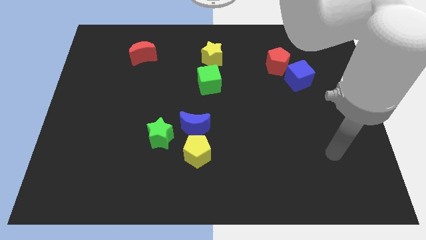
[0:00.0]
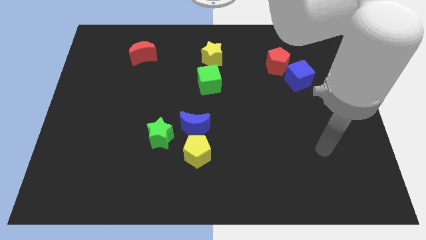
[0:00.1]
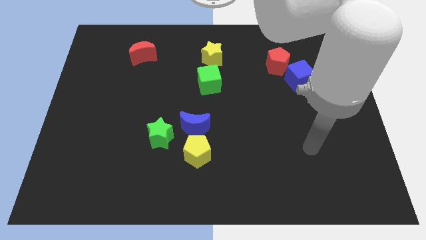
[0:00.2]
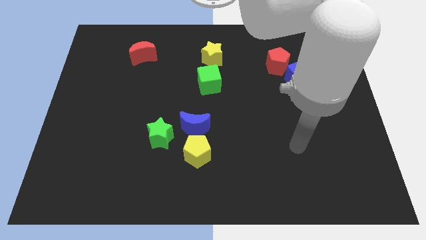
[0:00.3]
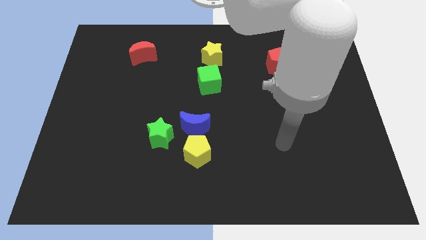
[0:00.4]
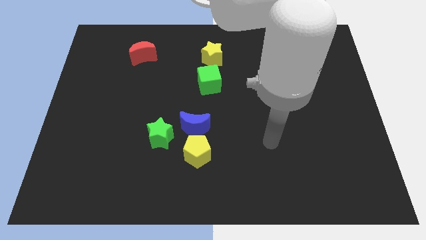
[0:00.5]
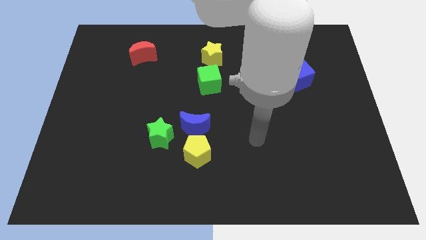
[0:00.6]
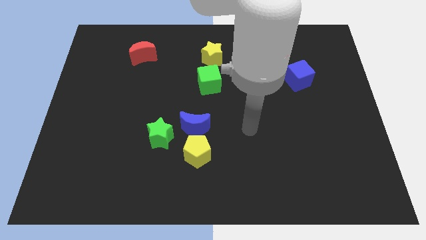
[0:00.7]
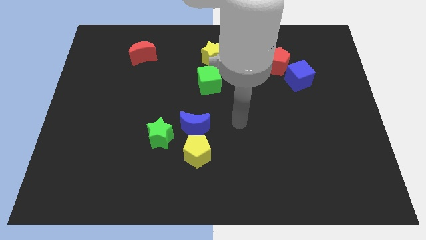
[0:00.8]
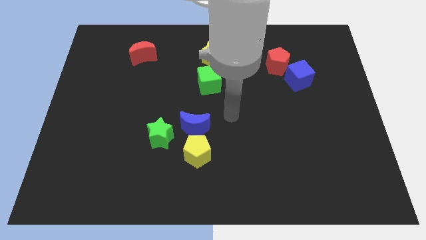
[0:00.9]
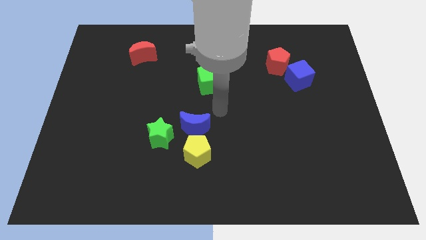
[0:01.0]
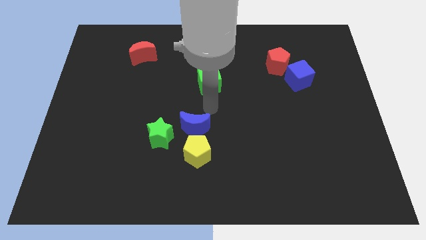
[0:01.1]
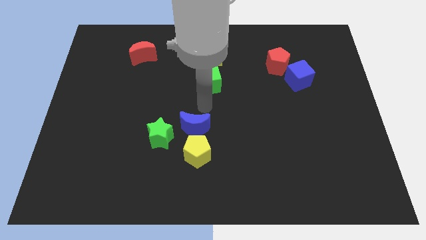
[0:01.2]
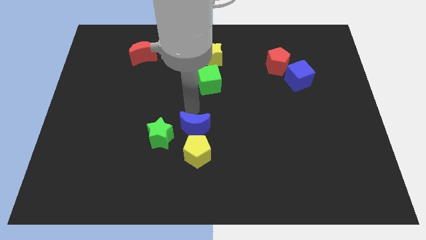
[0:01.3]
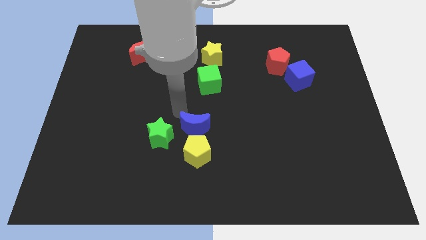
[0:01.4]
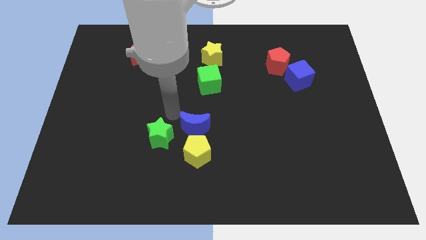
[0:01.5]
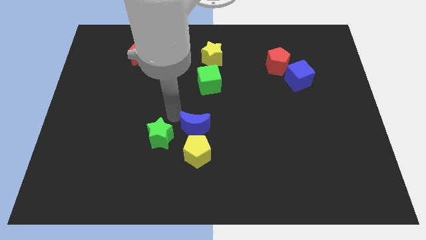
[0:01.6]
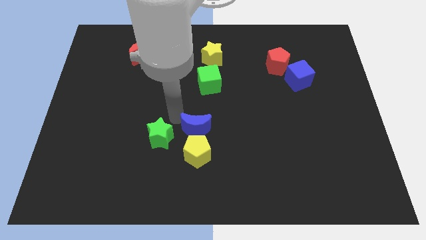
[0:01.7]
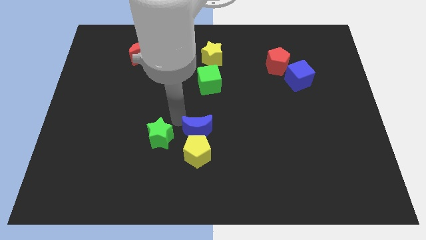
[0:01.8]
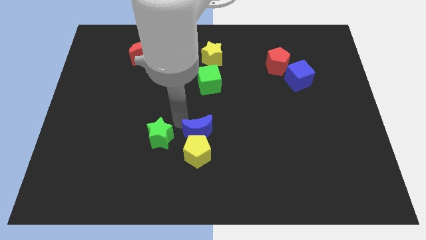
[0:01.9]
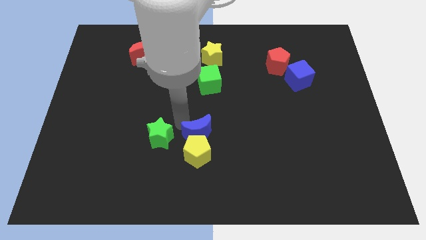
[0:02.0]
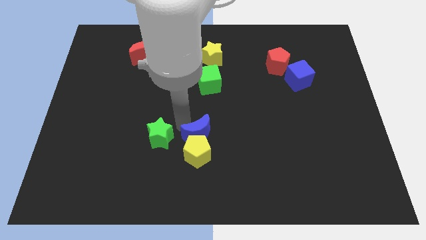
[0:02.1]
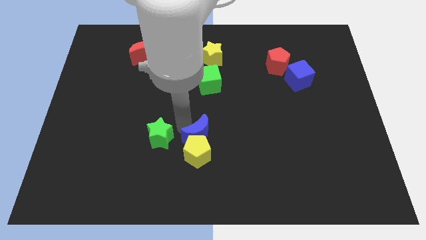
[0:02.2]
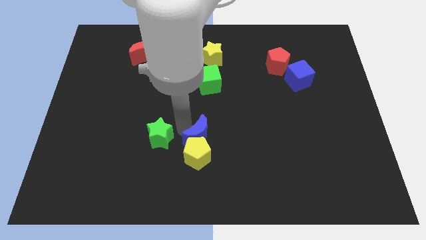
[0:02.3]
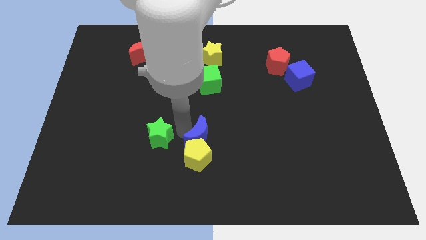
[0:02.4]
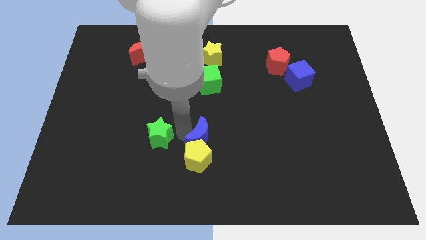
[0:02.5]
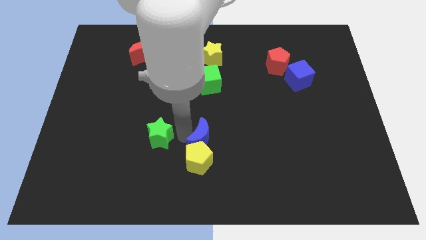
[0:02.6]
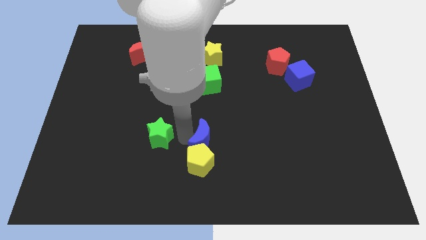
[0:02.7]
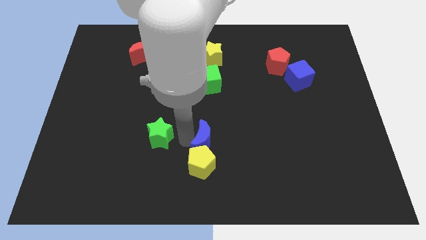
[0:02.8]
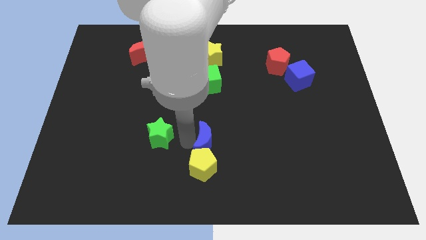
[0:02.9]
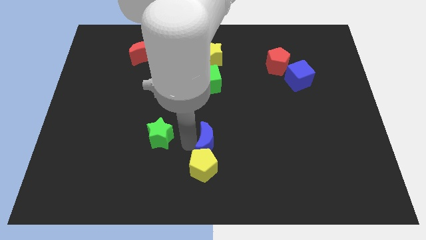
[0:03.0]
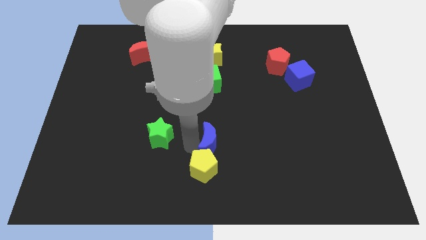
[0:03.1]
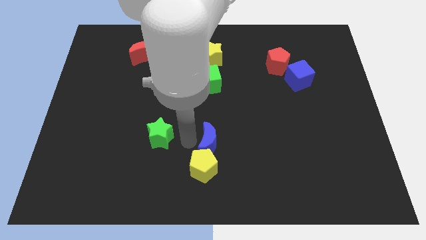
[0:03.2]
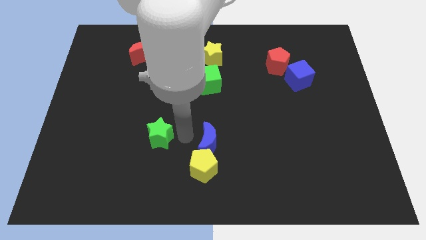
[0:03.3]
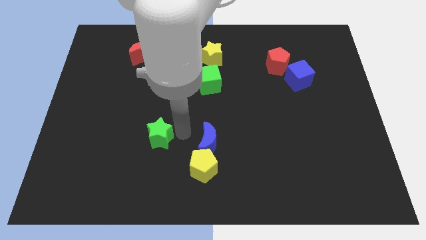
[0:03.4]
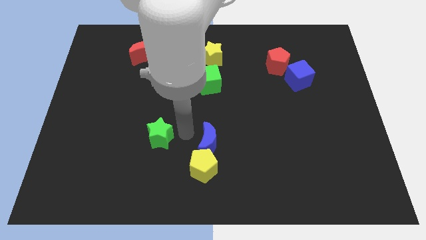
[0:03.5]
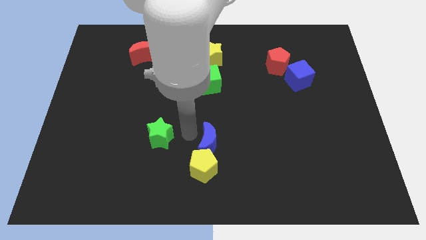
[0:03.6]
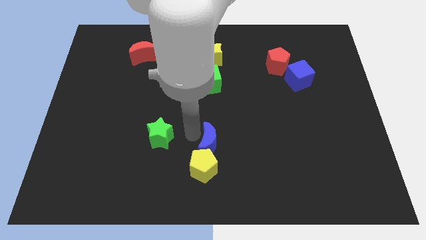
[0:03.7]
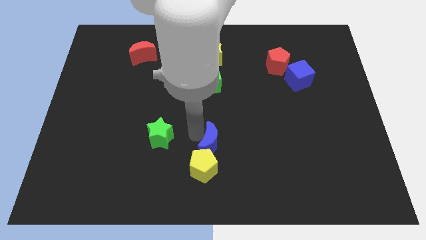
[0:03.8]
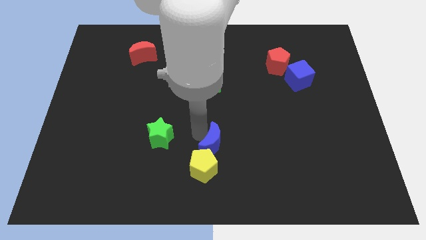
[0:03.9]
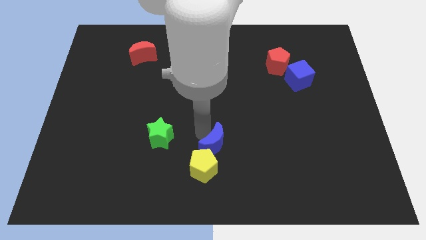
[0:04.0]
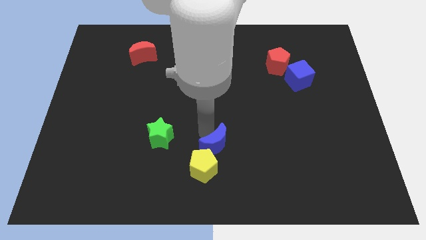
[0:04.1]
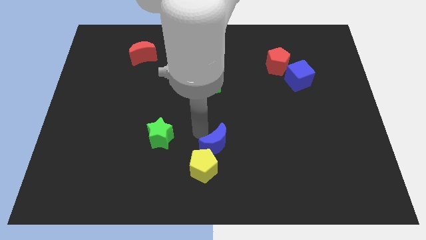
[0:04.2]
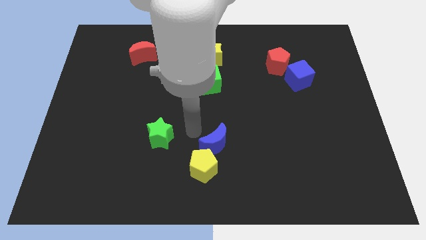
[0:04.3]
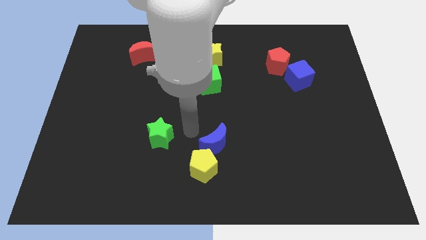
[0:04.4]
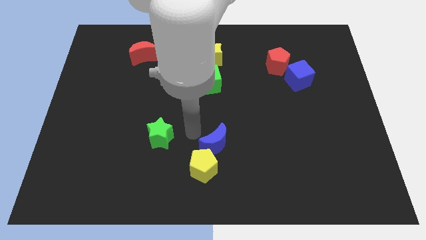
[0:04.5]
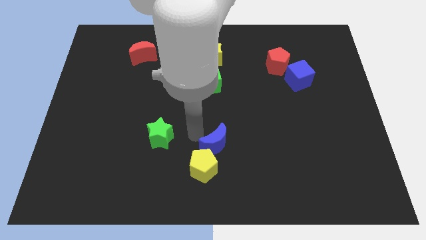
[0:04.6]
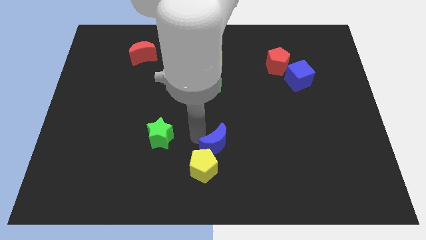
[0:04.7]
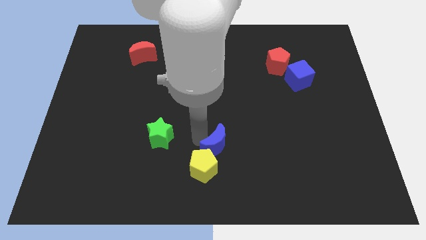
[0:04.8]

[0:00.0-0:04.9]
slide the blue moon slightly downwards and then right

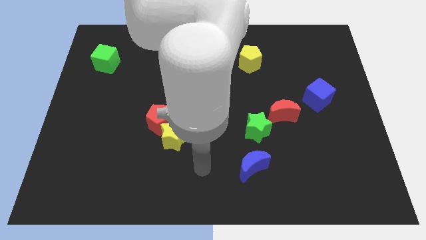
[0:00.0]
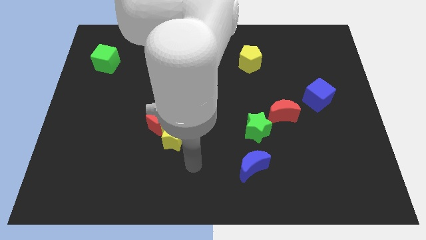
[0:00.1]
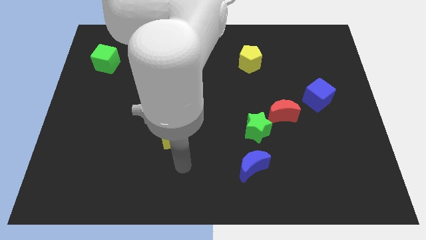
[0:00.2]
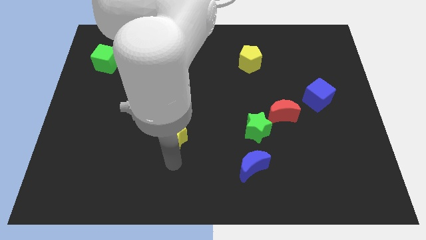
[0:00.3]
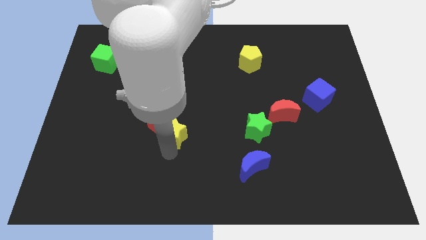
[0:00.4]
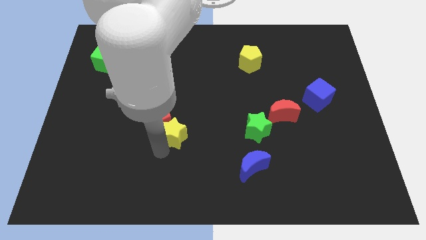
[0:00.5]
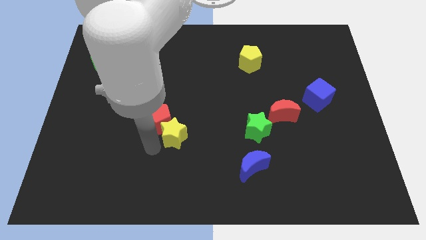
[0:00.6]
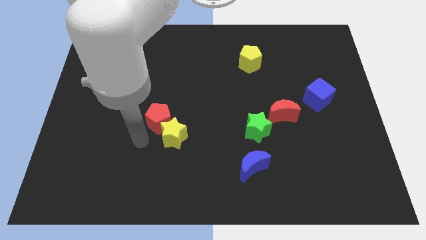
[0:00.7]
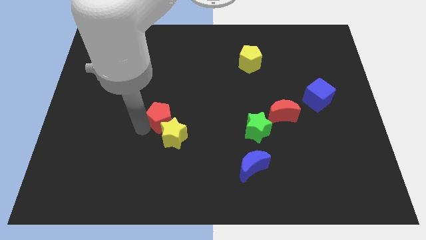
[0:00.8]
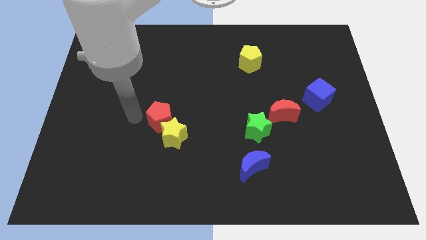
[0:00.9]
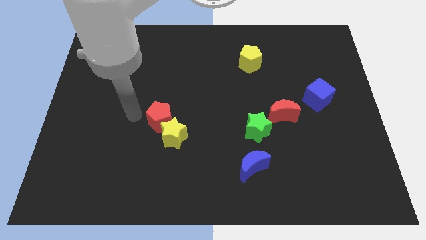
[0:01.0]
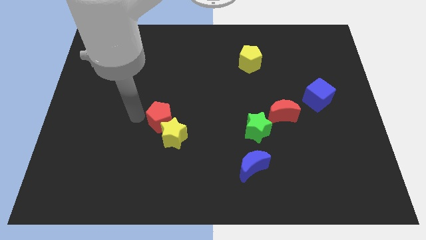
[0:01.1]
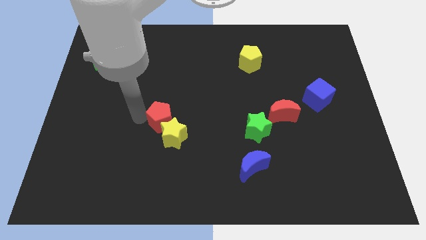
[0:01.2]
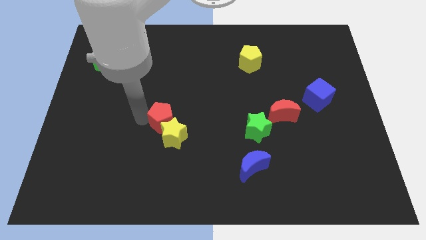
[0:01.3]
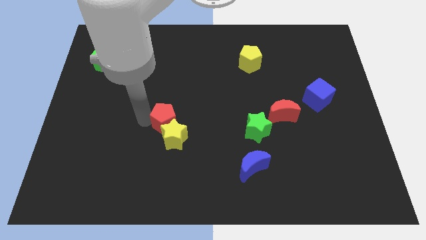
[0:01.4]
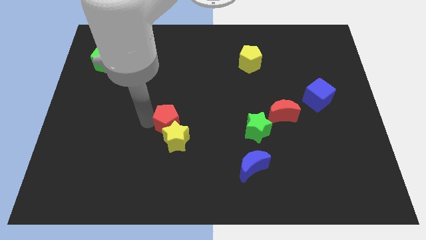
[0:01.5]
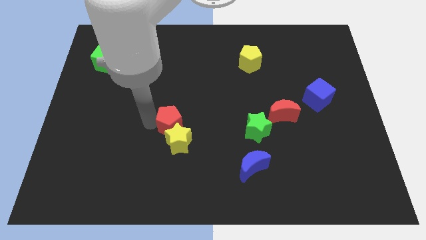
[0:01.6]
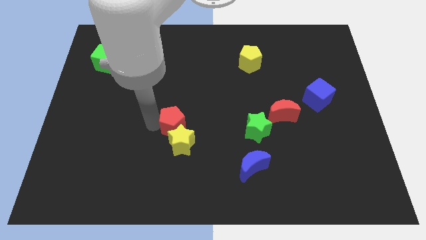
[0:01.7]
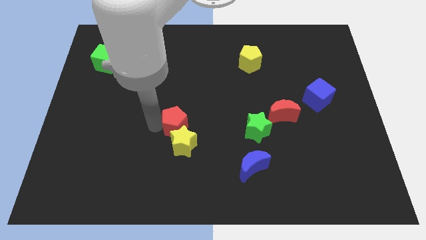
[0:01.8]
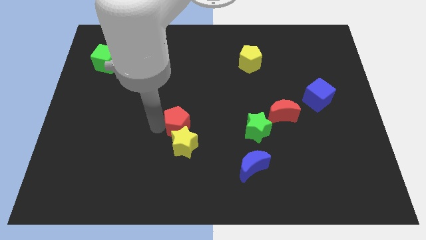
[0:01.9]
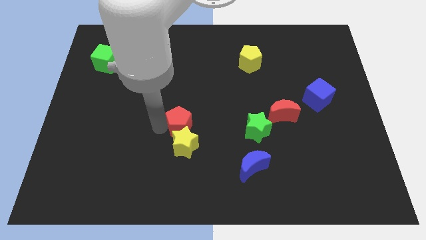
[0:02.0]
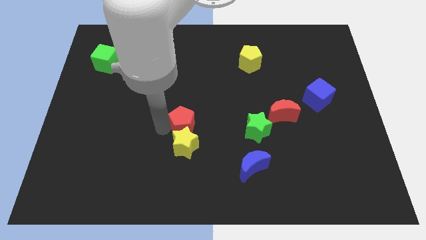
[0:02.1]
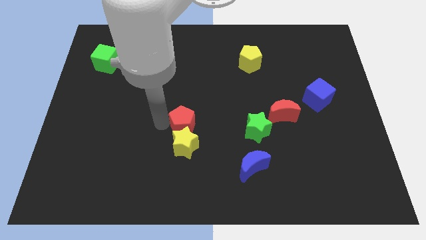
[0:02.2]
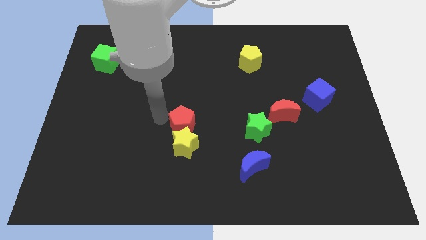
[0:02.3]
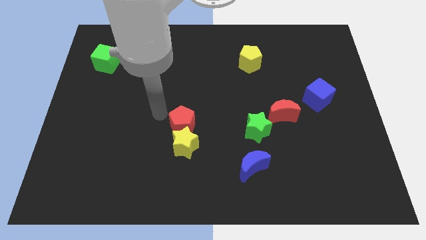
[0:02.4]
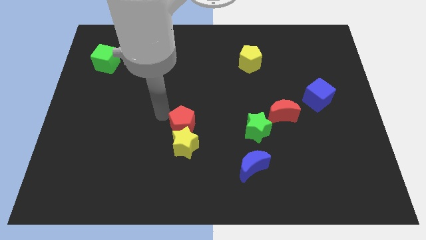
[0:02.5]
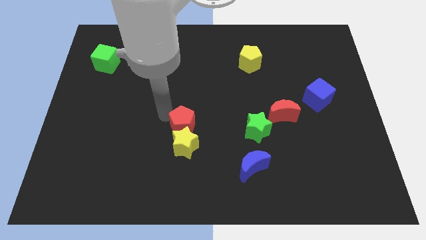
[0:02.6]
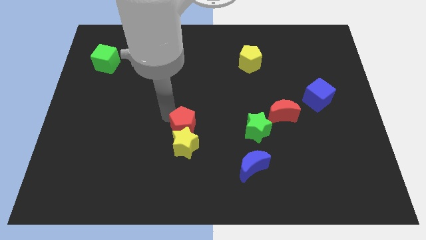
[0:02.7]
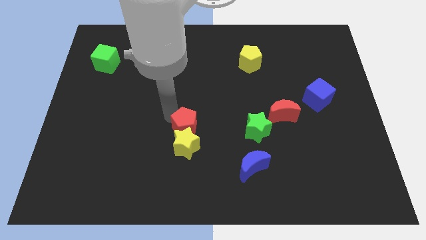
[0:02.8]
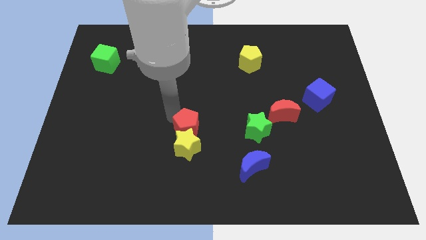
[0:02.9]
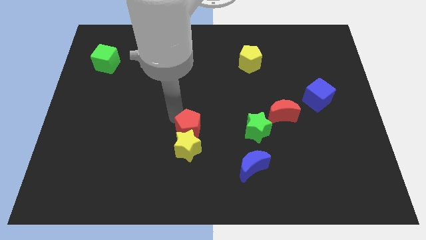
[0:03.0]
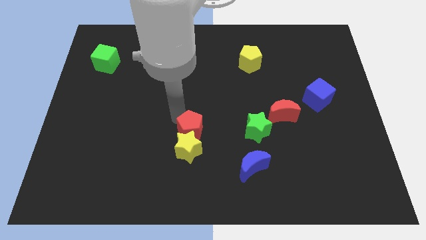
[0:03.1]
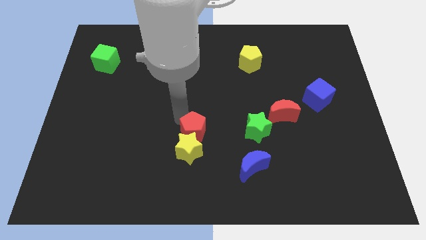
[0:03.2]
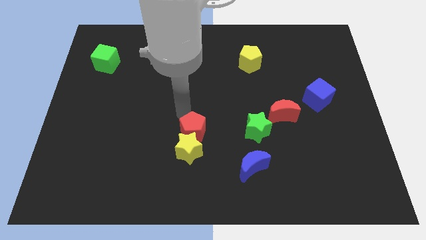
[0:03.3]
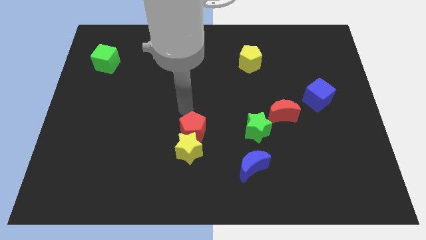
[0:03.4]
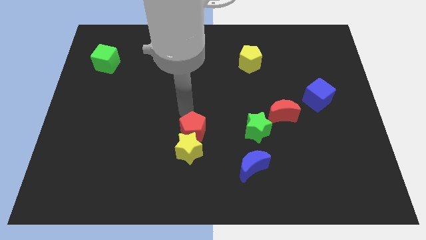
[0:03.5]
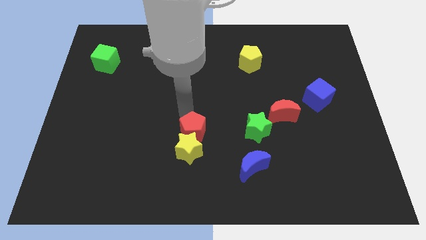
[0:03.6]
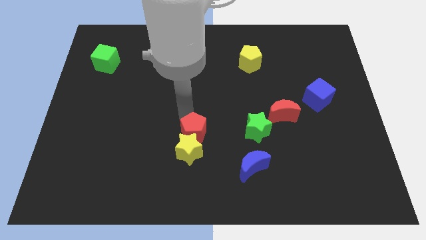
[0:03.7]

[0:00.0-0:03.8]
push the red pentagon downwards and right slightly
